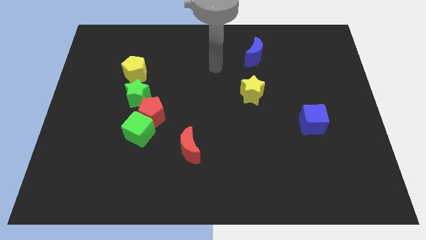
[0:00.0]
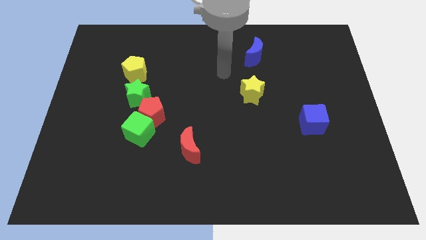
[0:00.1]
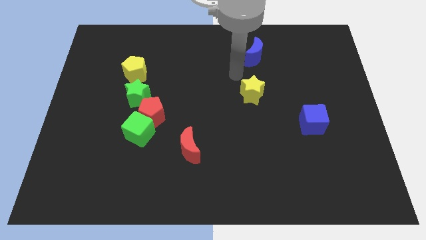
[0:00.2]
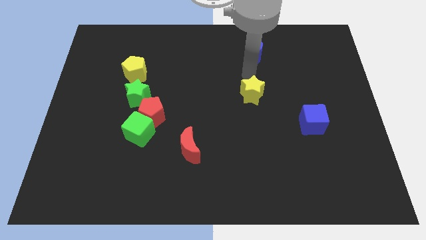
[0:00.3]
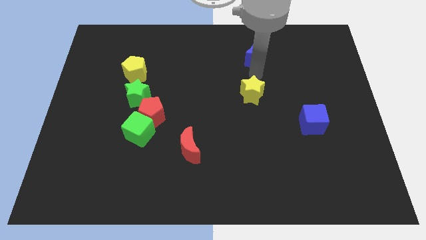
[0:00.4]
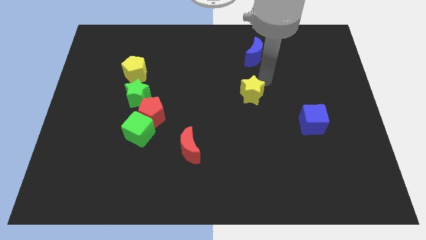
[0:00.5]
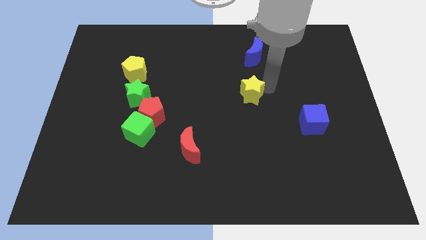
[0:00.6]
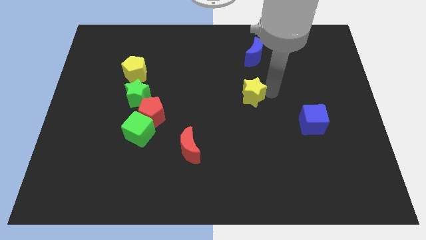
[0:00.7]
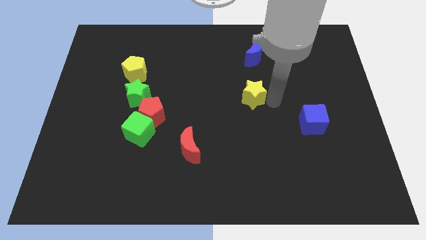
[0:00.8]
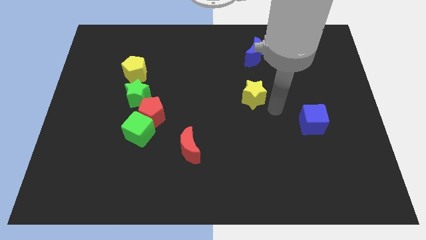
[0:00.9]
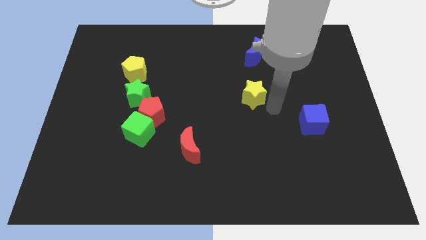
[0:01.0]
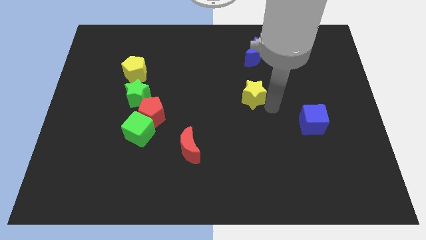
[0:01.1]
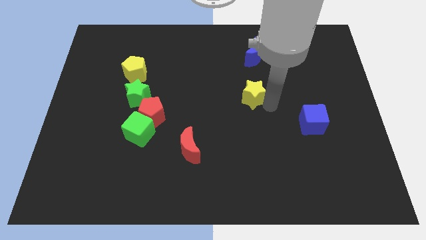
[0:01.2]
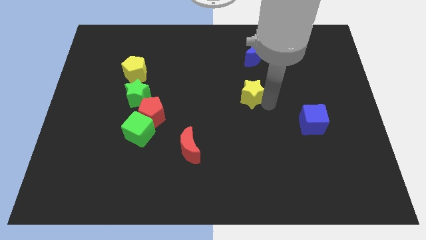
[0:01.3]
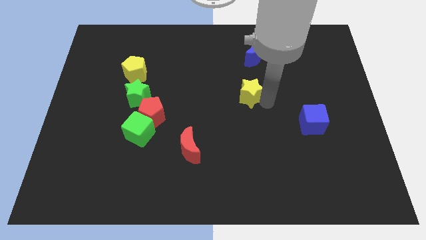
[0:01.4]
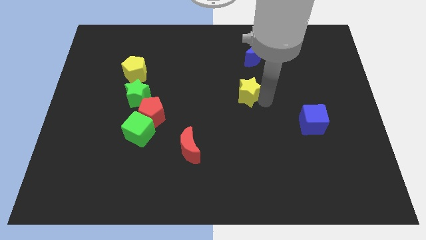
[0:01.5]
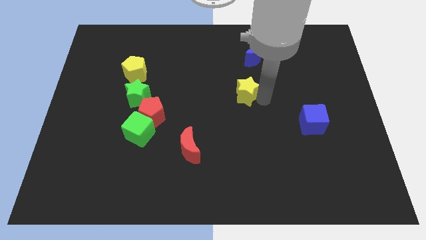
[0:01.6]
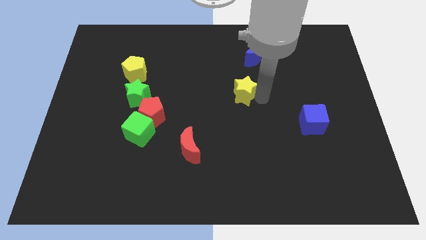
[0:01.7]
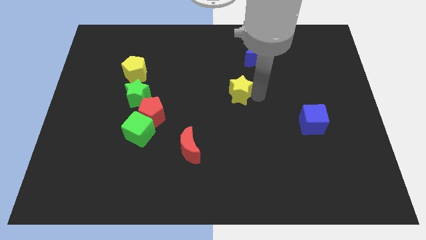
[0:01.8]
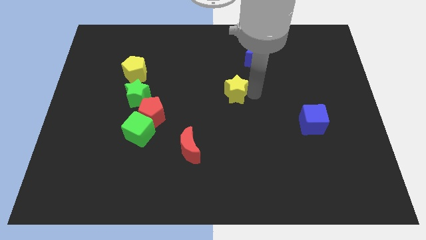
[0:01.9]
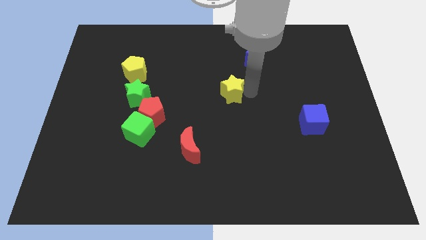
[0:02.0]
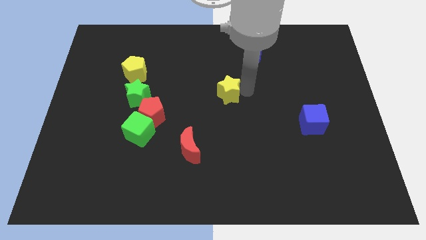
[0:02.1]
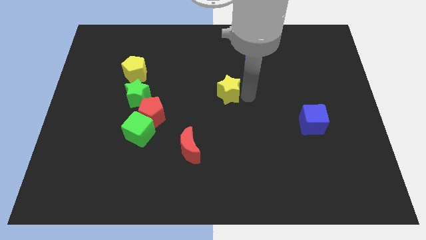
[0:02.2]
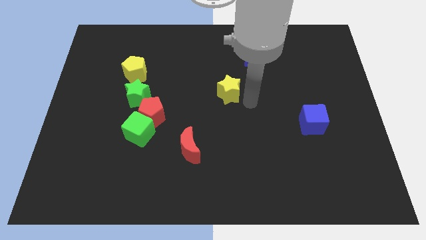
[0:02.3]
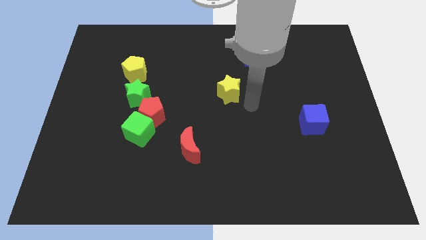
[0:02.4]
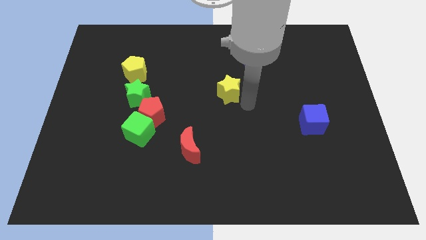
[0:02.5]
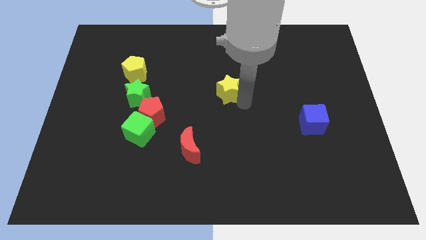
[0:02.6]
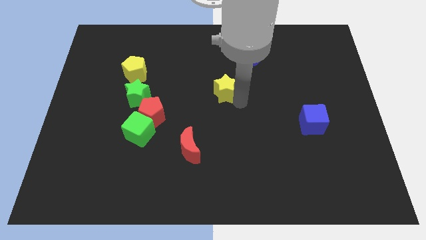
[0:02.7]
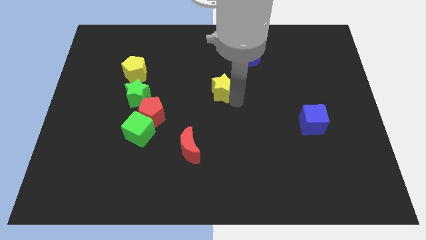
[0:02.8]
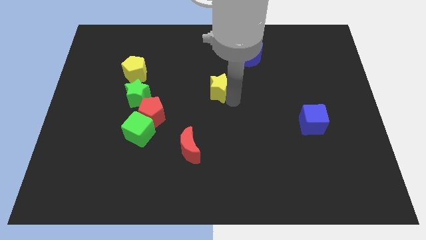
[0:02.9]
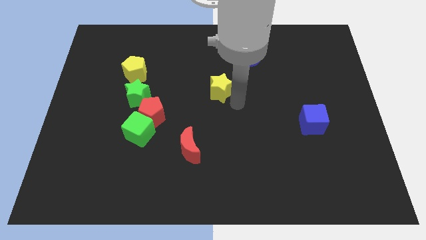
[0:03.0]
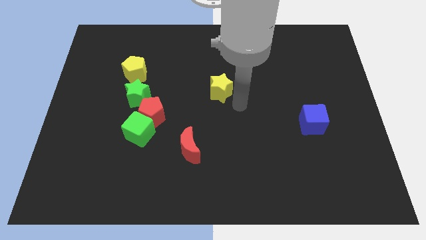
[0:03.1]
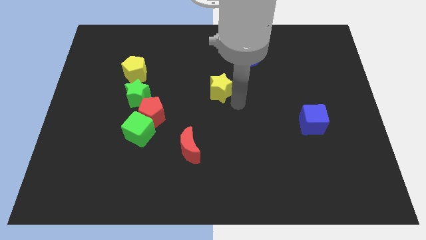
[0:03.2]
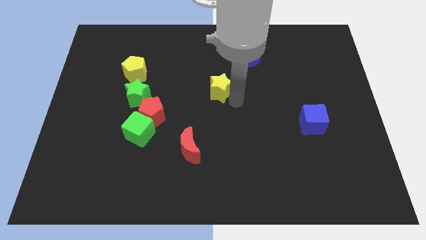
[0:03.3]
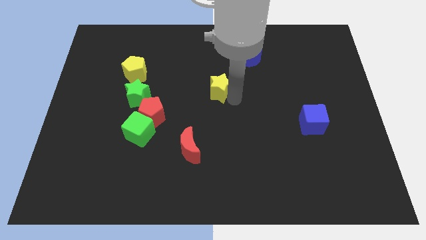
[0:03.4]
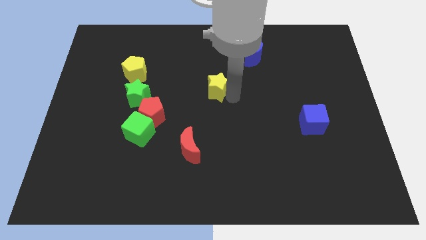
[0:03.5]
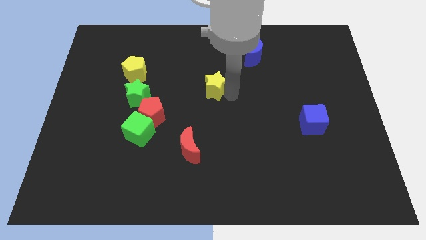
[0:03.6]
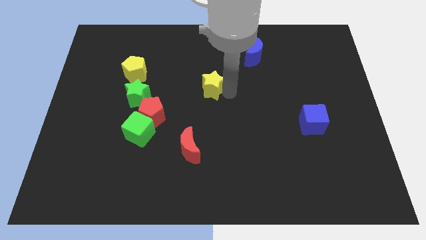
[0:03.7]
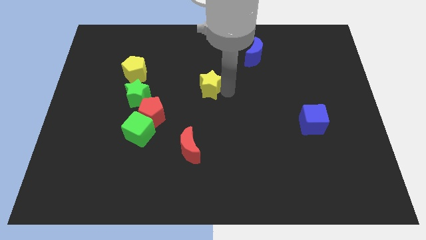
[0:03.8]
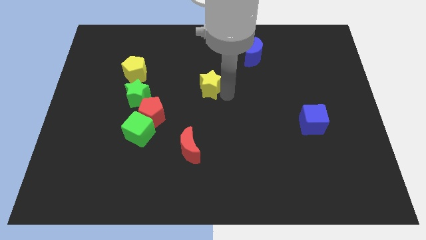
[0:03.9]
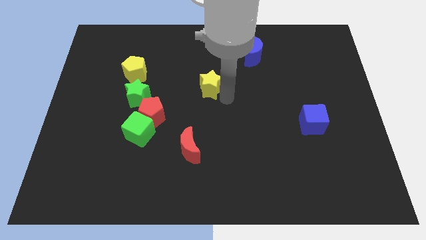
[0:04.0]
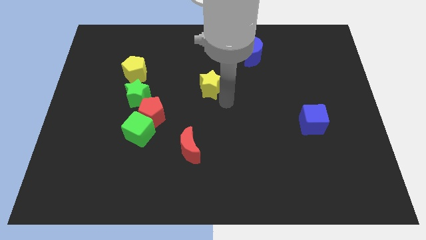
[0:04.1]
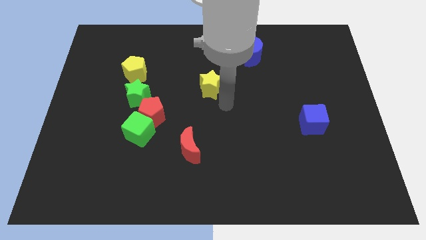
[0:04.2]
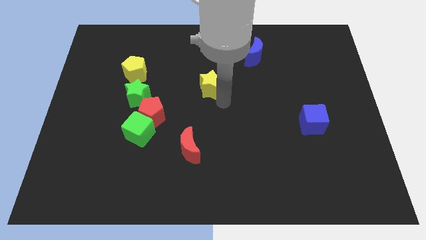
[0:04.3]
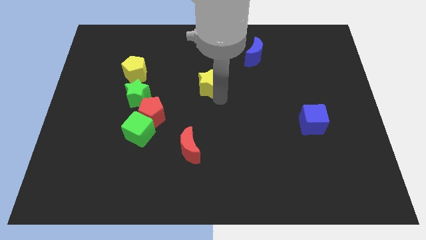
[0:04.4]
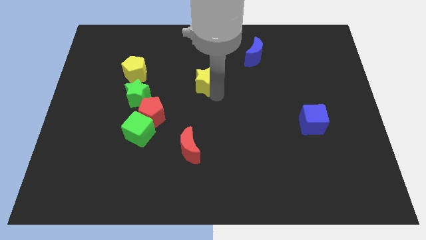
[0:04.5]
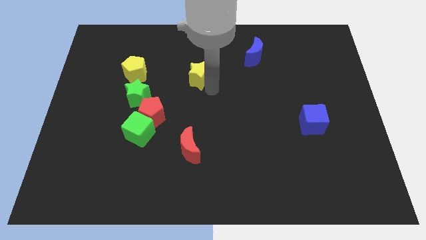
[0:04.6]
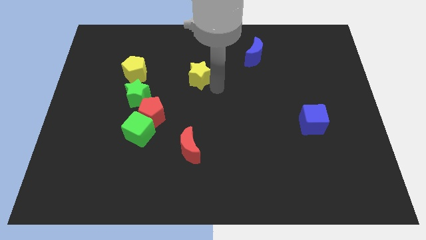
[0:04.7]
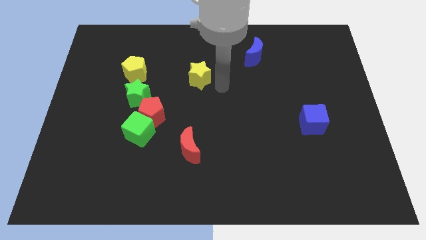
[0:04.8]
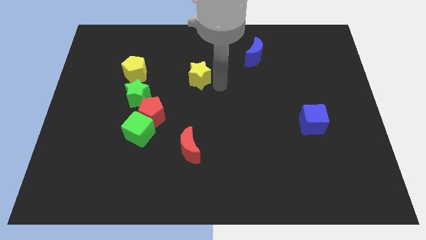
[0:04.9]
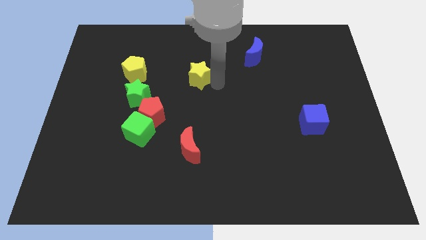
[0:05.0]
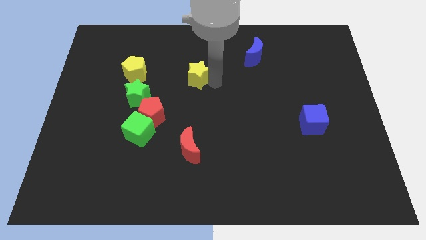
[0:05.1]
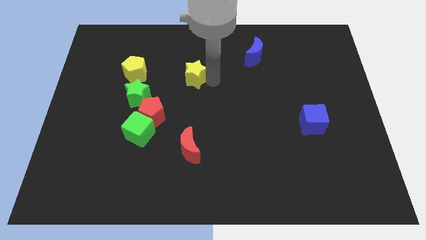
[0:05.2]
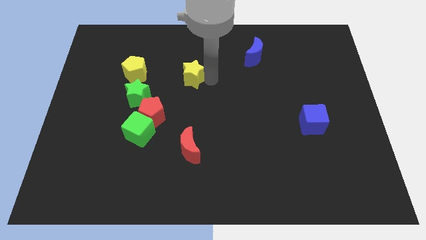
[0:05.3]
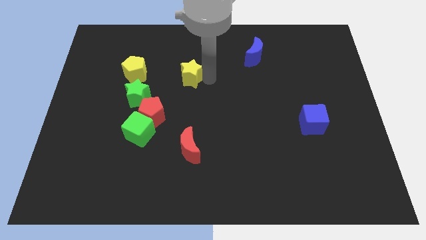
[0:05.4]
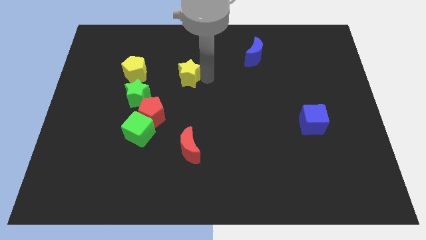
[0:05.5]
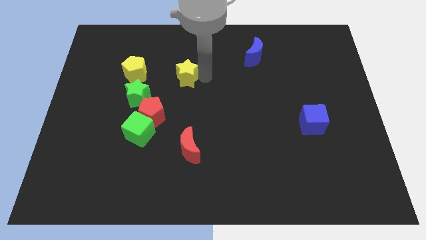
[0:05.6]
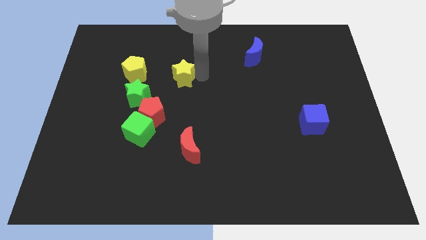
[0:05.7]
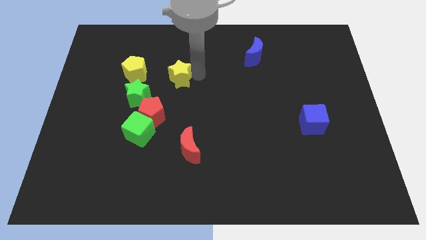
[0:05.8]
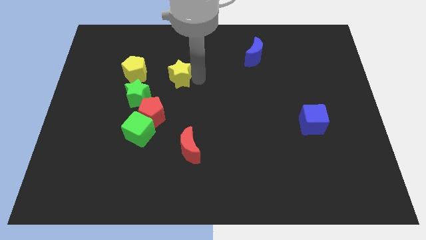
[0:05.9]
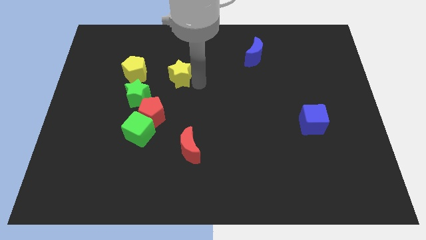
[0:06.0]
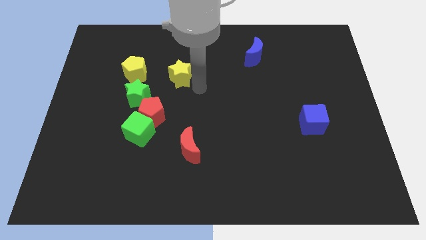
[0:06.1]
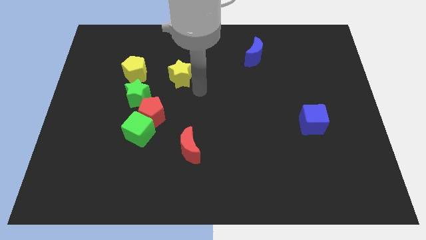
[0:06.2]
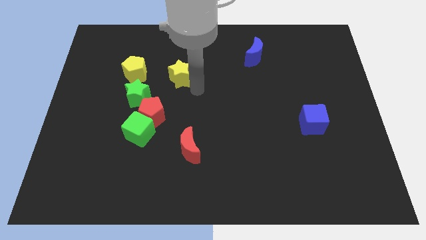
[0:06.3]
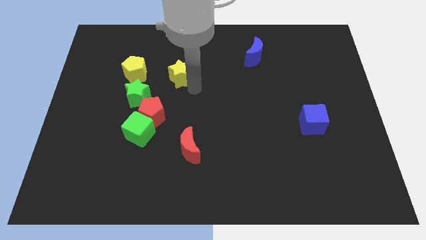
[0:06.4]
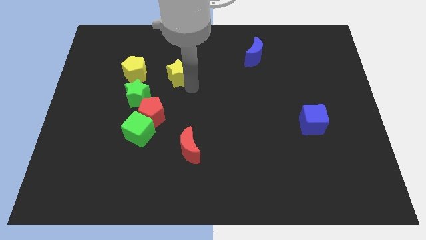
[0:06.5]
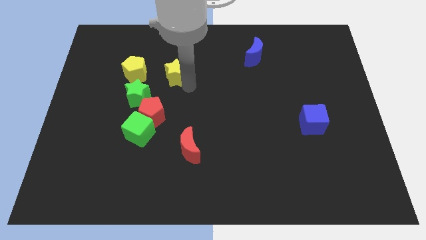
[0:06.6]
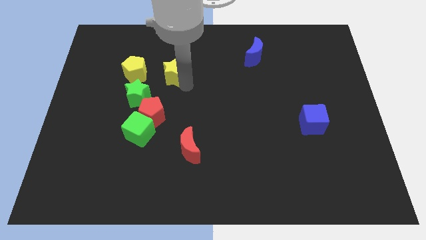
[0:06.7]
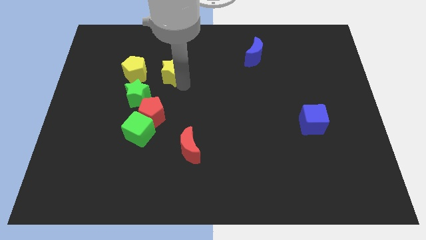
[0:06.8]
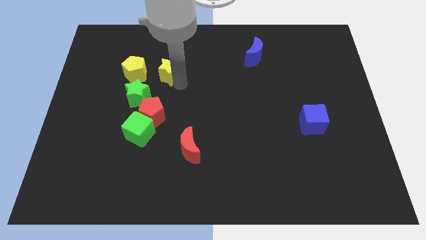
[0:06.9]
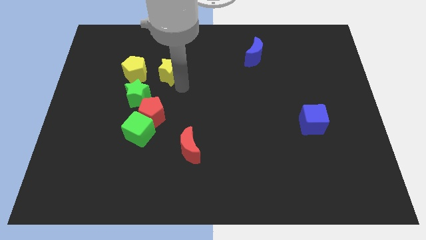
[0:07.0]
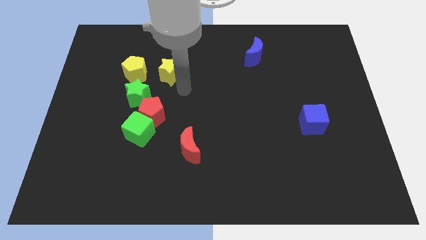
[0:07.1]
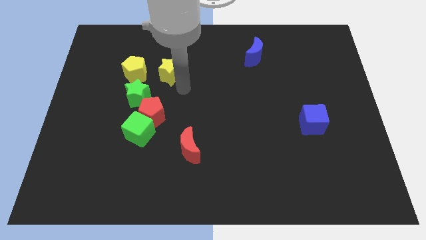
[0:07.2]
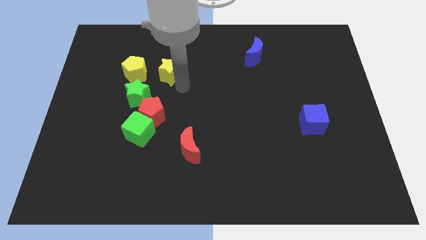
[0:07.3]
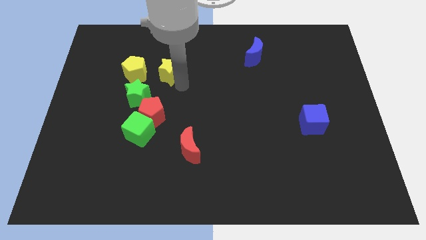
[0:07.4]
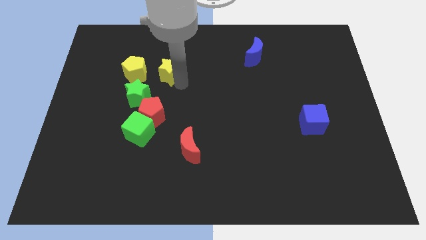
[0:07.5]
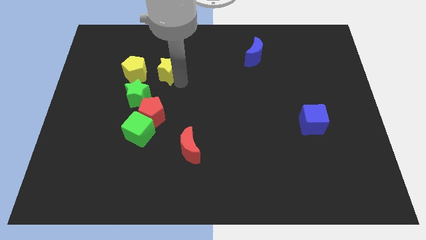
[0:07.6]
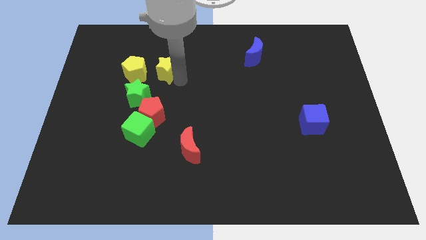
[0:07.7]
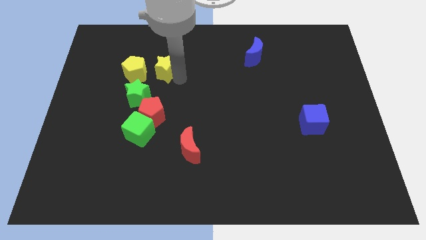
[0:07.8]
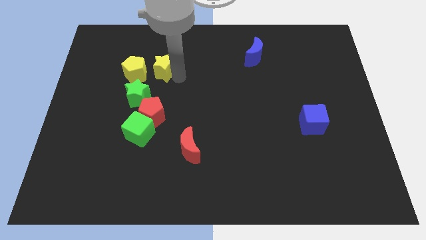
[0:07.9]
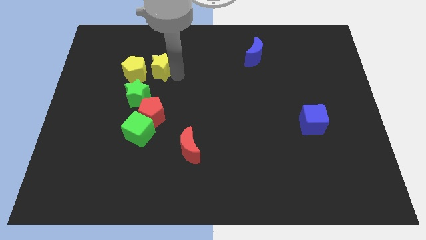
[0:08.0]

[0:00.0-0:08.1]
move the yellow star to the top side of the green star
